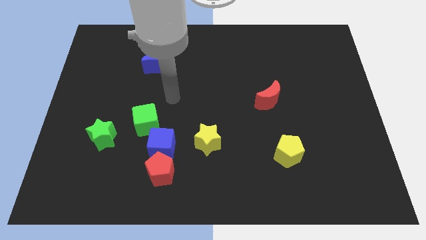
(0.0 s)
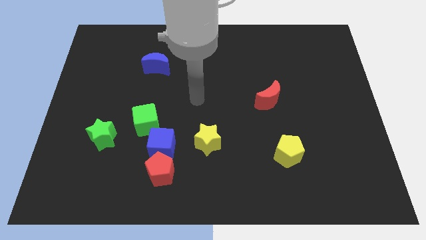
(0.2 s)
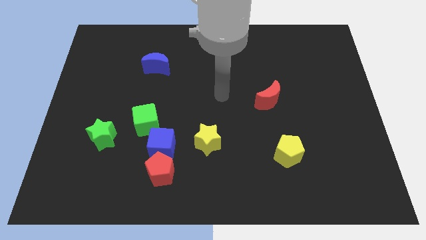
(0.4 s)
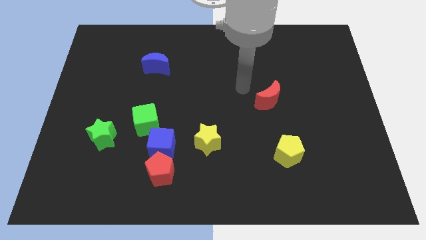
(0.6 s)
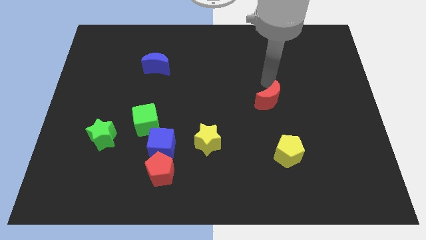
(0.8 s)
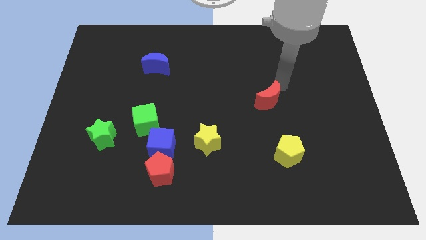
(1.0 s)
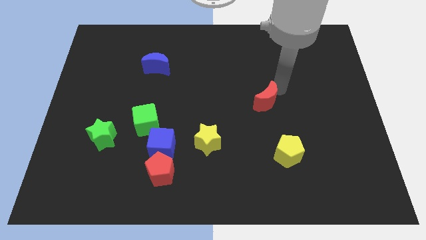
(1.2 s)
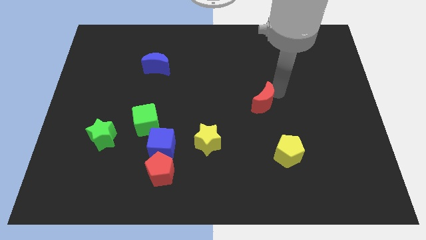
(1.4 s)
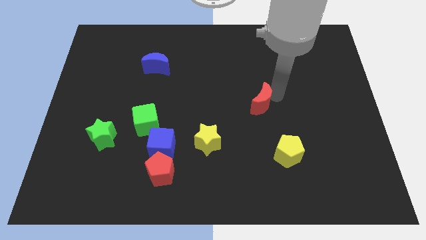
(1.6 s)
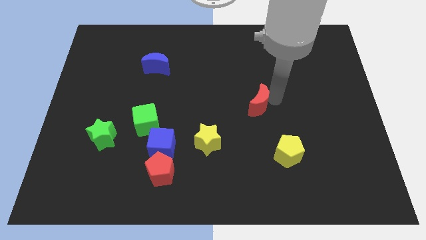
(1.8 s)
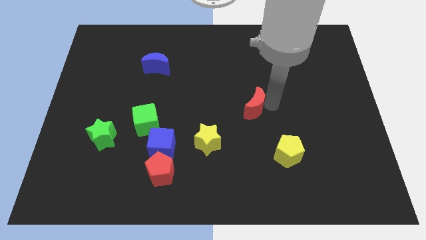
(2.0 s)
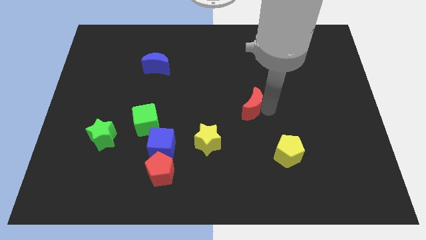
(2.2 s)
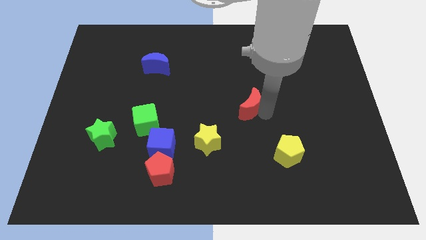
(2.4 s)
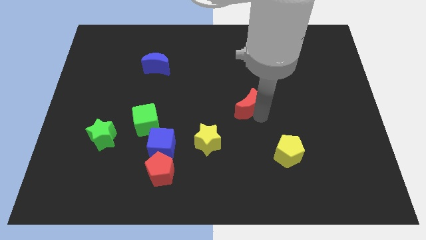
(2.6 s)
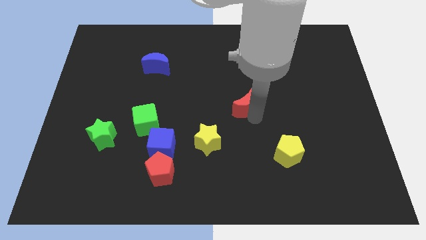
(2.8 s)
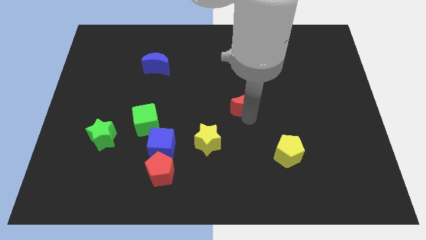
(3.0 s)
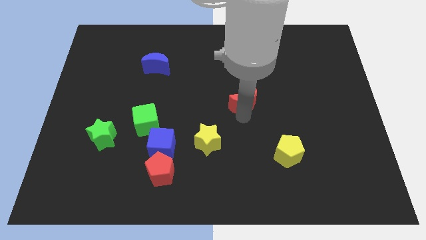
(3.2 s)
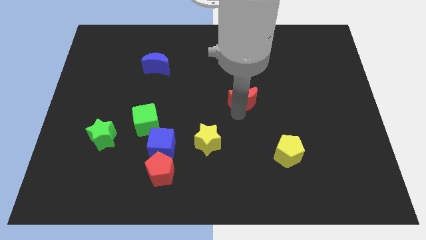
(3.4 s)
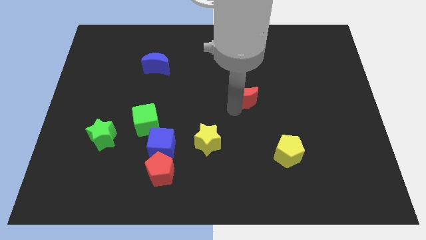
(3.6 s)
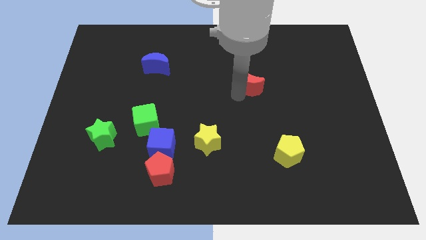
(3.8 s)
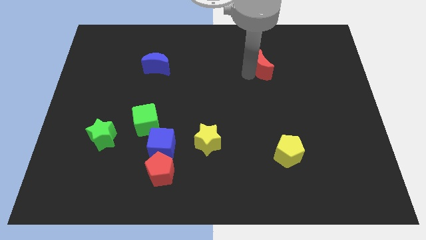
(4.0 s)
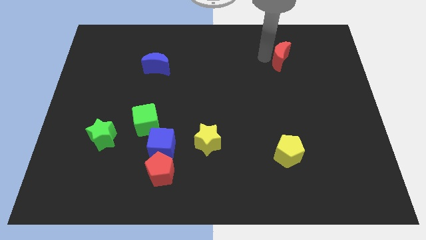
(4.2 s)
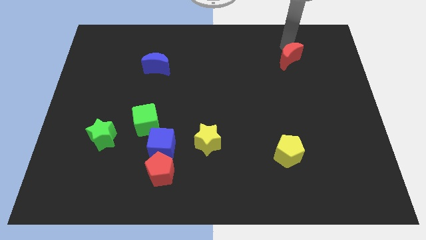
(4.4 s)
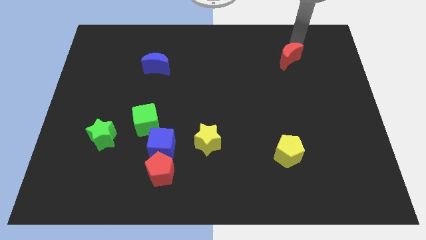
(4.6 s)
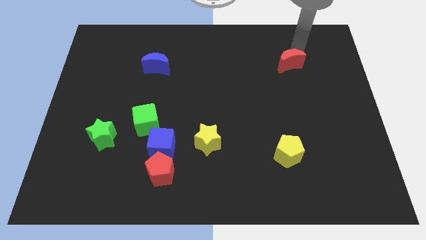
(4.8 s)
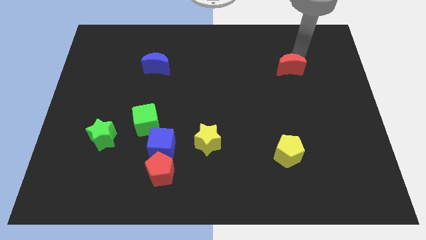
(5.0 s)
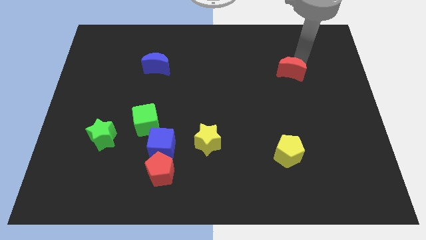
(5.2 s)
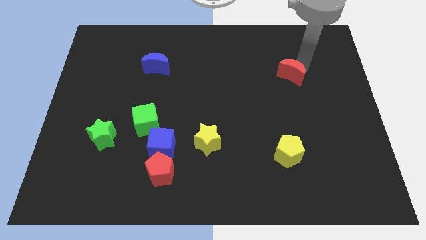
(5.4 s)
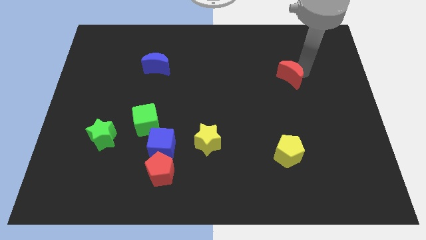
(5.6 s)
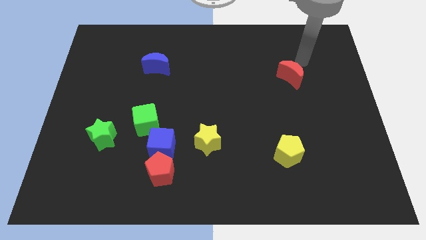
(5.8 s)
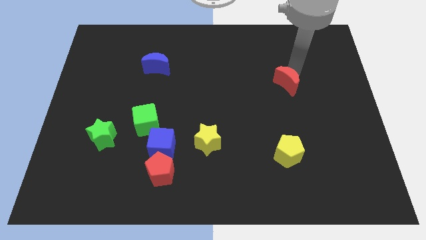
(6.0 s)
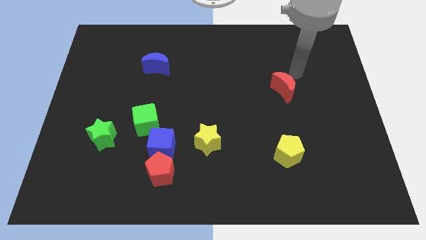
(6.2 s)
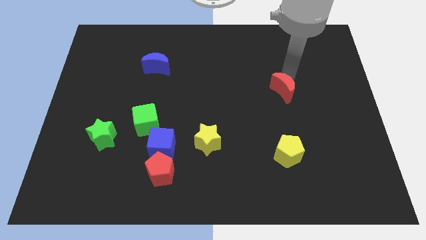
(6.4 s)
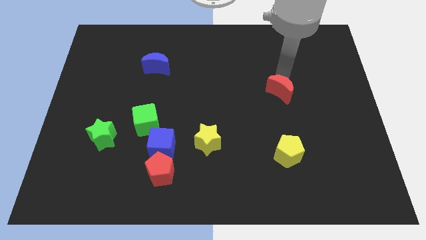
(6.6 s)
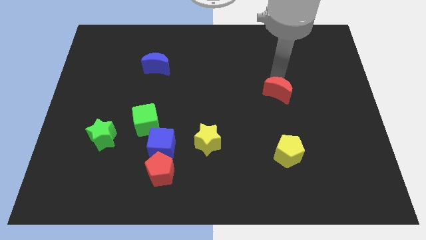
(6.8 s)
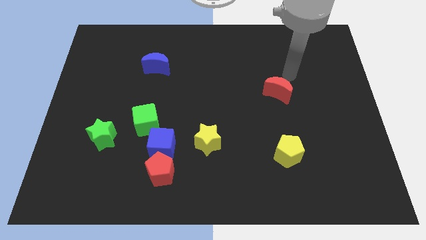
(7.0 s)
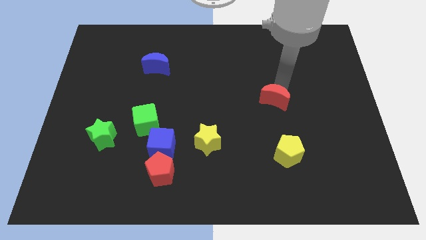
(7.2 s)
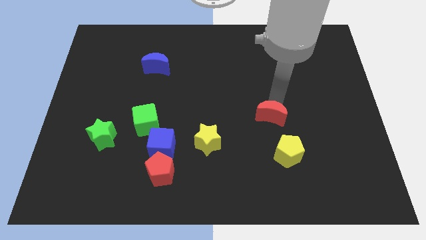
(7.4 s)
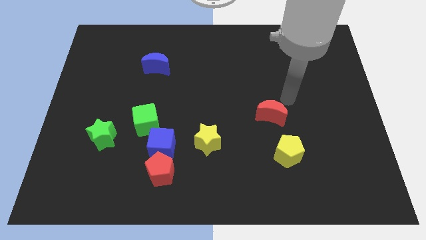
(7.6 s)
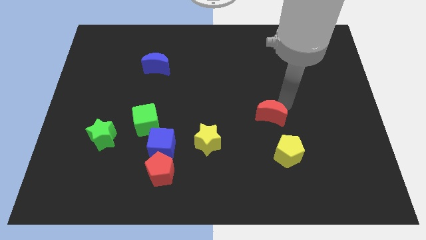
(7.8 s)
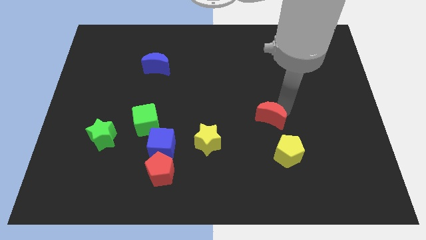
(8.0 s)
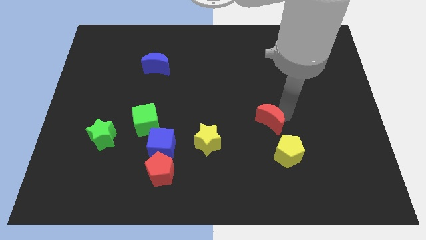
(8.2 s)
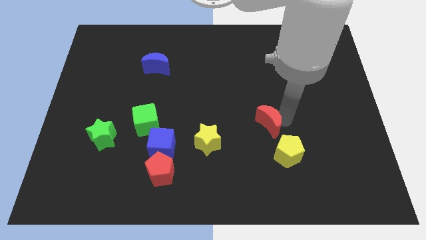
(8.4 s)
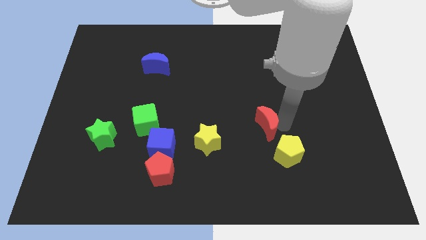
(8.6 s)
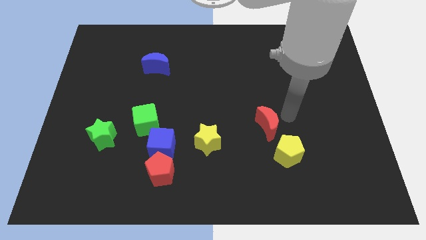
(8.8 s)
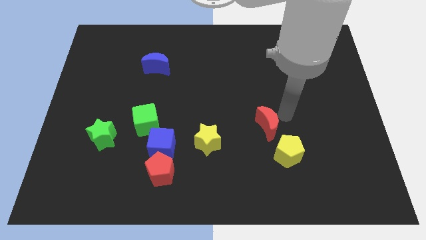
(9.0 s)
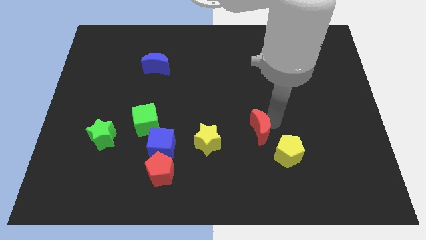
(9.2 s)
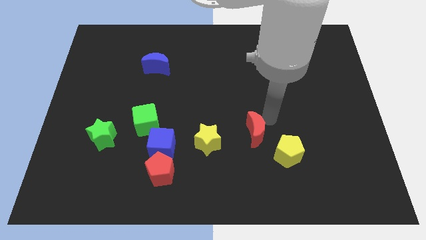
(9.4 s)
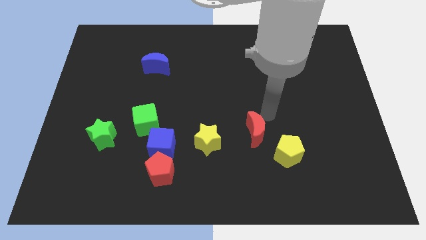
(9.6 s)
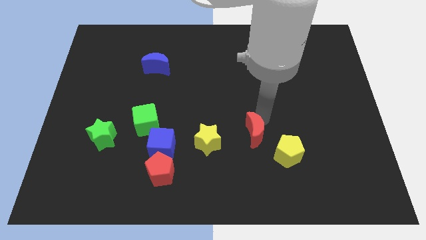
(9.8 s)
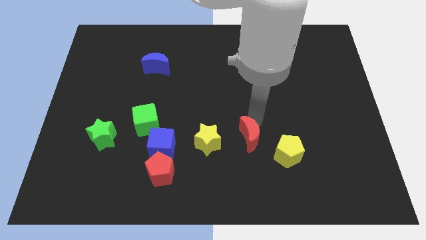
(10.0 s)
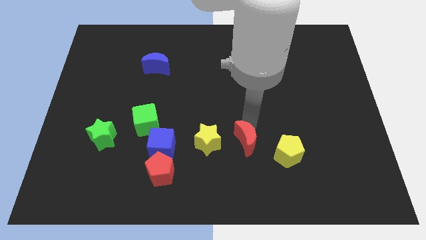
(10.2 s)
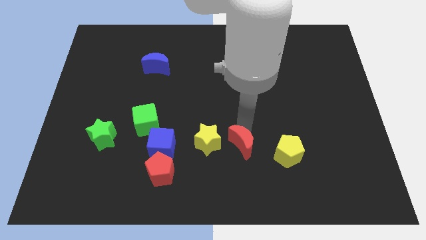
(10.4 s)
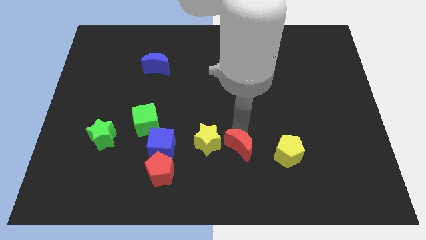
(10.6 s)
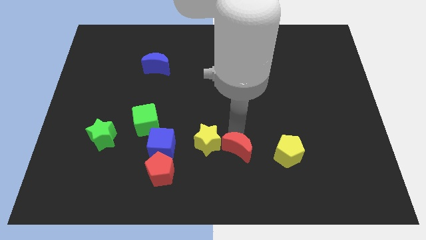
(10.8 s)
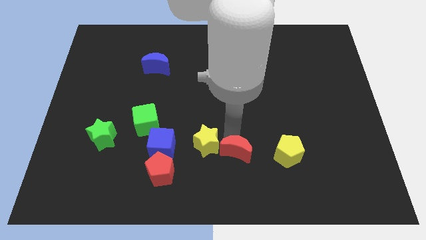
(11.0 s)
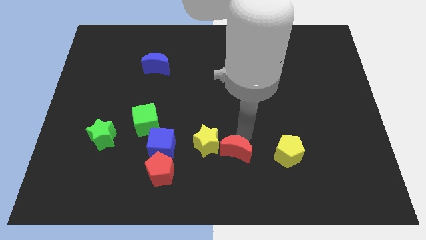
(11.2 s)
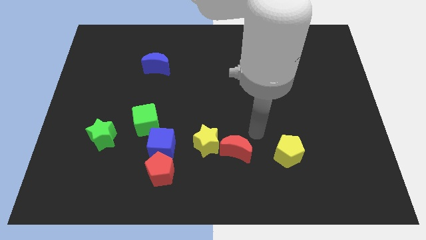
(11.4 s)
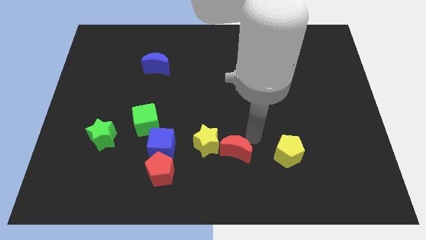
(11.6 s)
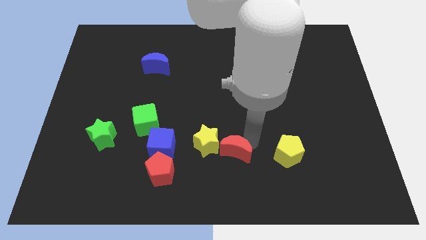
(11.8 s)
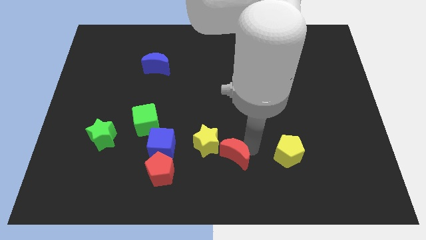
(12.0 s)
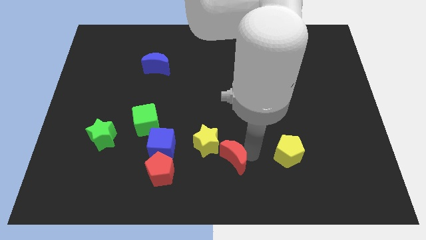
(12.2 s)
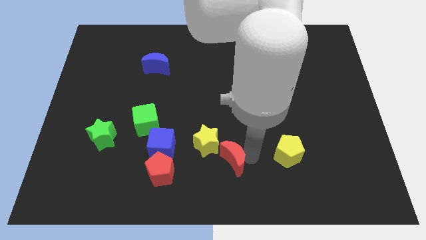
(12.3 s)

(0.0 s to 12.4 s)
push the red moon right of the red pentagon
